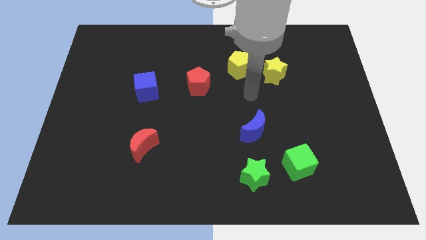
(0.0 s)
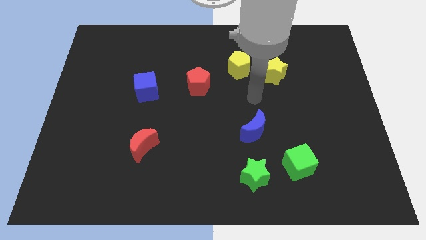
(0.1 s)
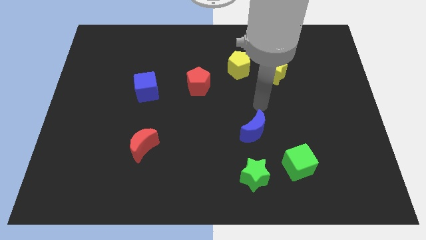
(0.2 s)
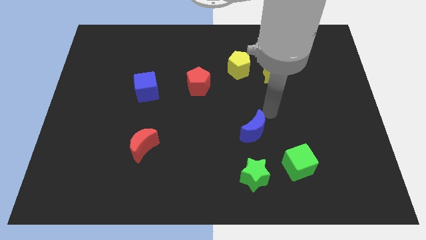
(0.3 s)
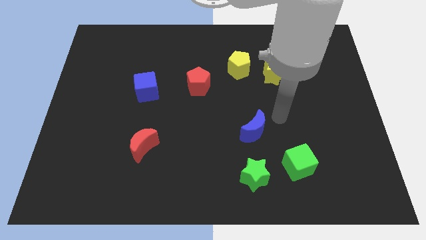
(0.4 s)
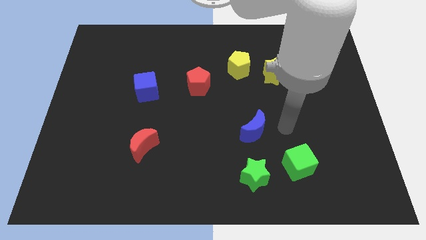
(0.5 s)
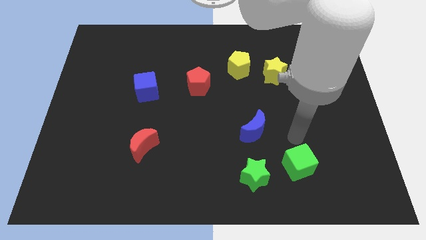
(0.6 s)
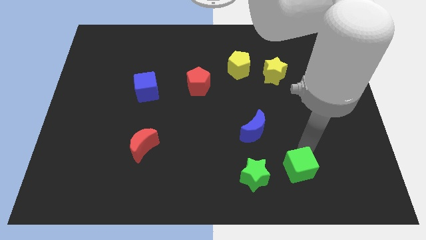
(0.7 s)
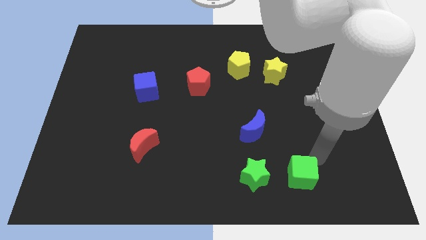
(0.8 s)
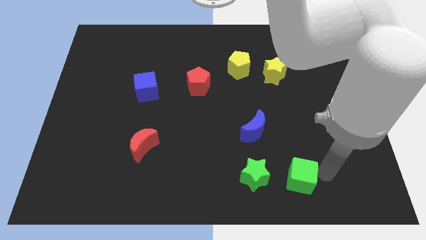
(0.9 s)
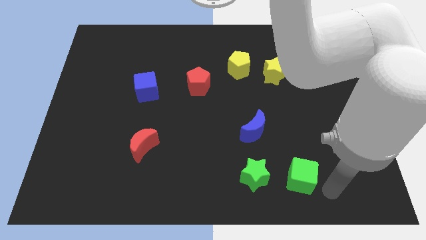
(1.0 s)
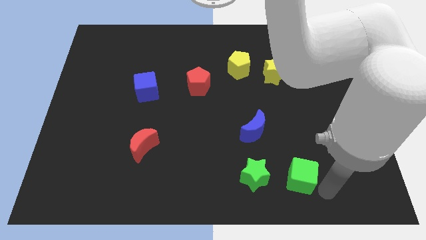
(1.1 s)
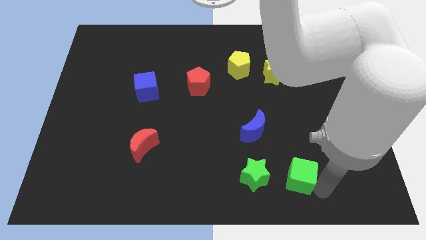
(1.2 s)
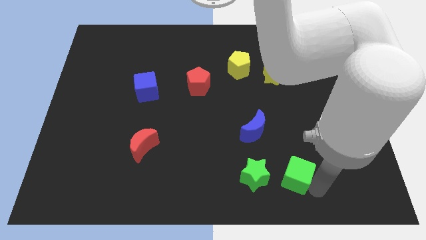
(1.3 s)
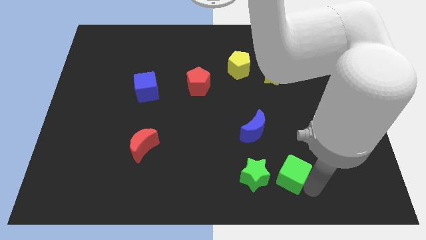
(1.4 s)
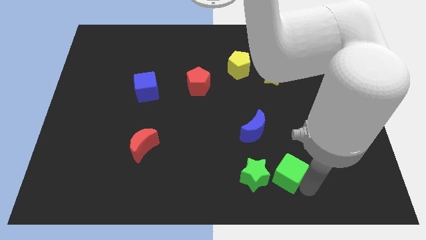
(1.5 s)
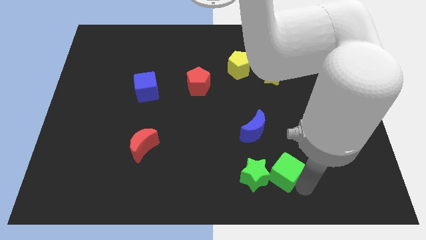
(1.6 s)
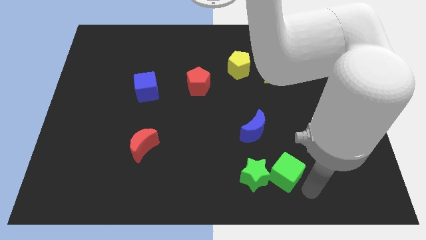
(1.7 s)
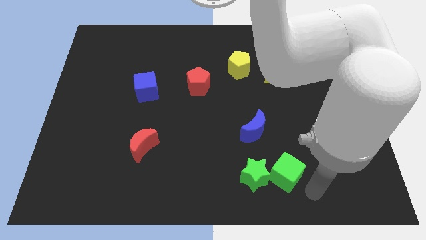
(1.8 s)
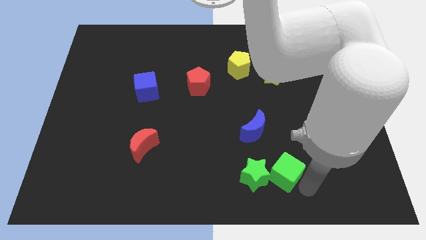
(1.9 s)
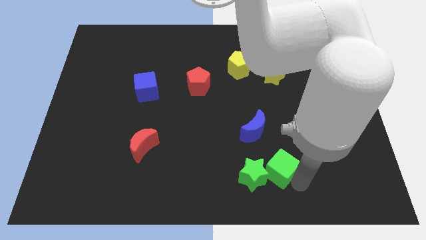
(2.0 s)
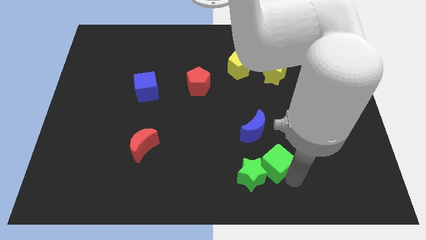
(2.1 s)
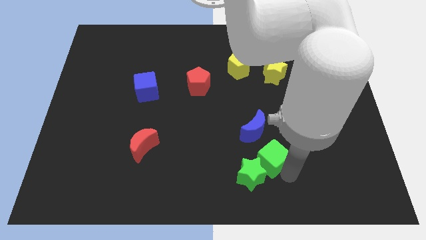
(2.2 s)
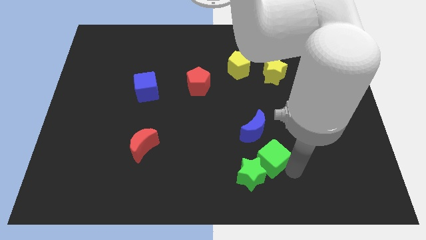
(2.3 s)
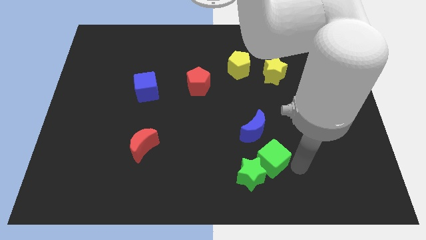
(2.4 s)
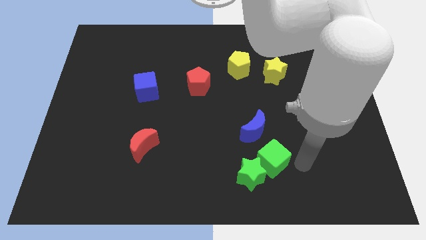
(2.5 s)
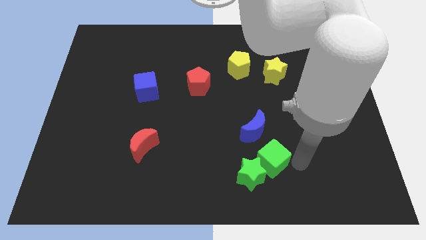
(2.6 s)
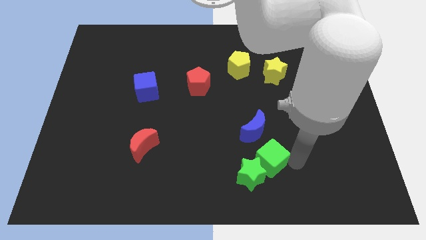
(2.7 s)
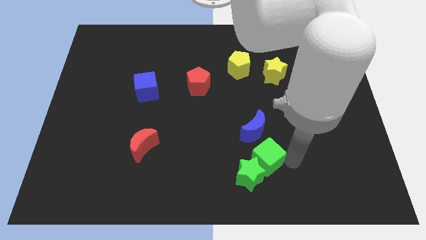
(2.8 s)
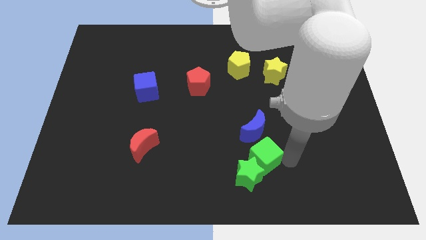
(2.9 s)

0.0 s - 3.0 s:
push the green cube a little to the left

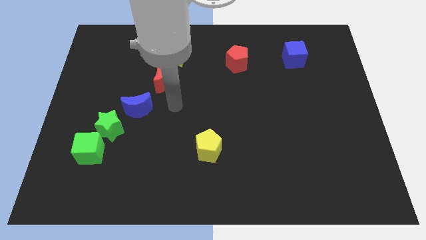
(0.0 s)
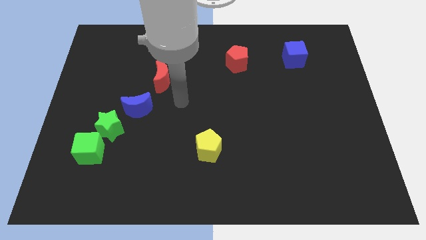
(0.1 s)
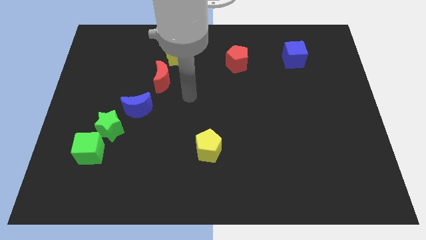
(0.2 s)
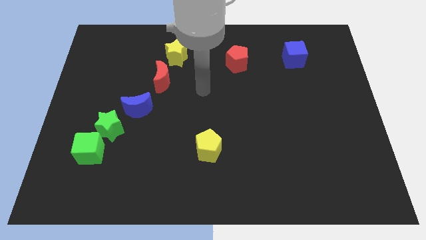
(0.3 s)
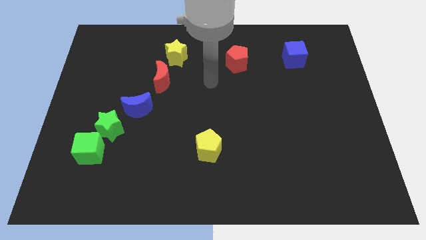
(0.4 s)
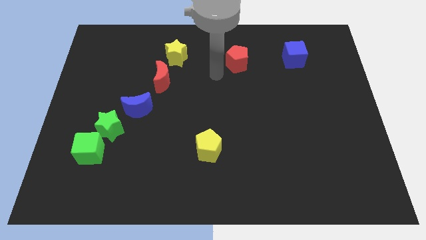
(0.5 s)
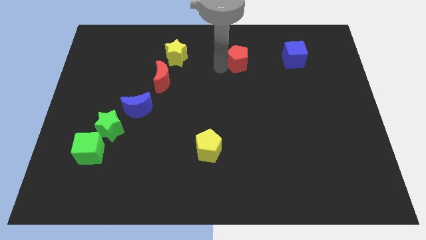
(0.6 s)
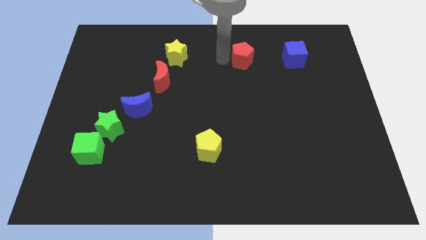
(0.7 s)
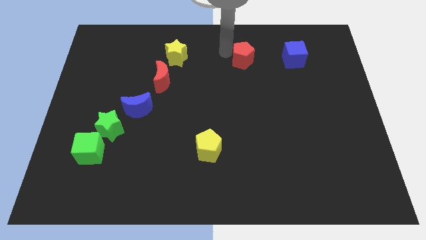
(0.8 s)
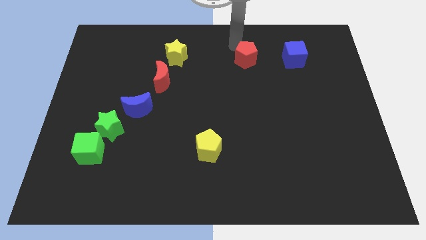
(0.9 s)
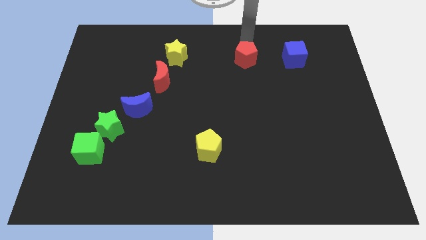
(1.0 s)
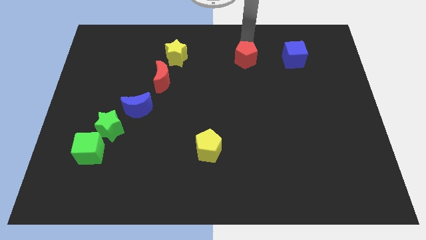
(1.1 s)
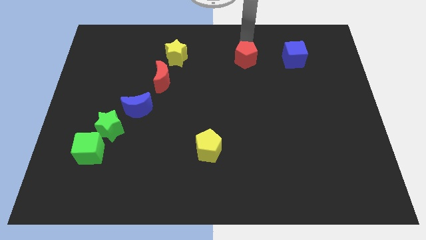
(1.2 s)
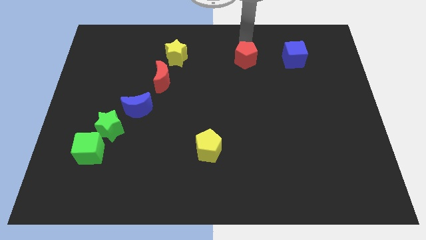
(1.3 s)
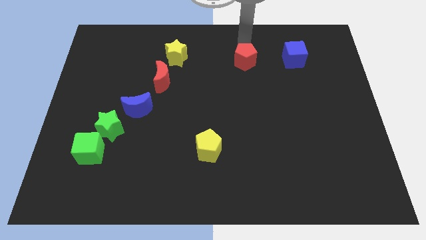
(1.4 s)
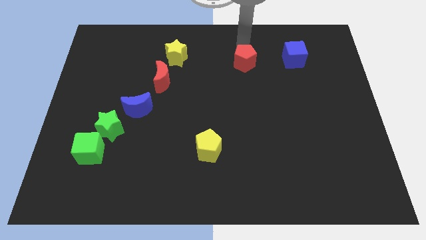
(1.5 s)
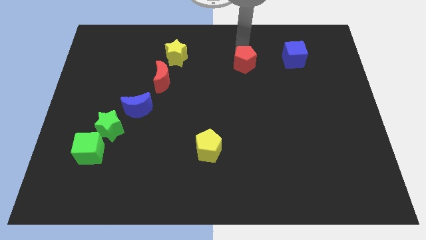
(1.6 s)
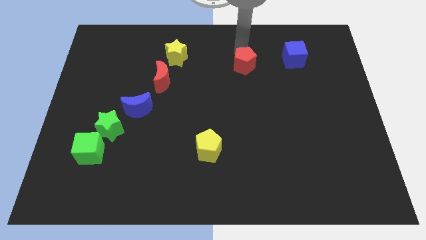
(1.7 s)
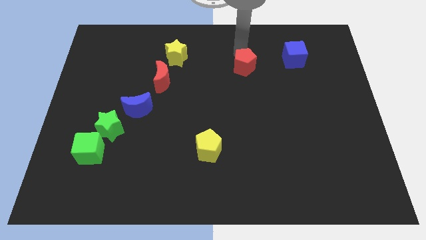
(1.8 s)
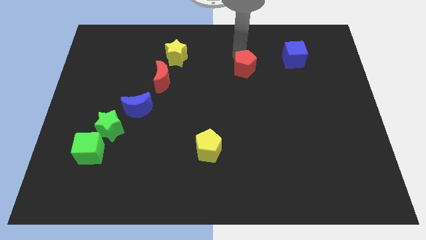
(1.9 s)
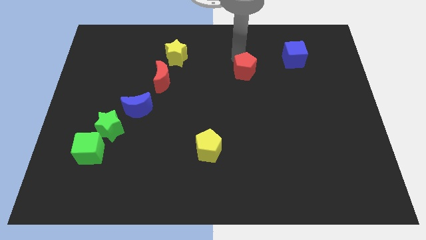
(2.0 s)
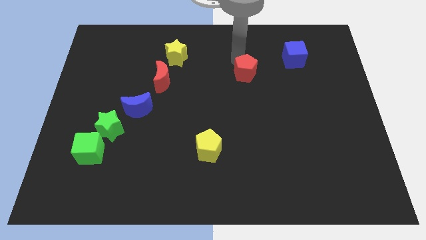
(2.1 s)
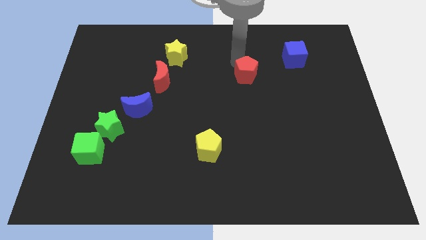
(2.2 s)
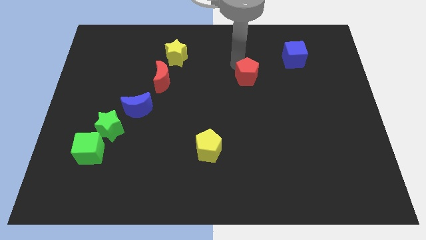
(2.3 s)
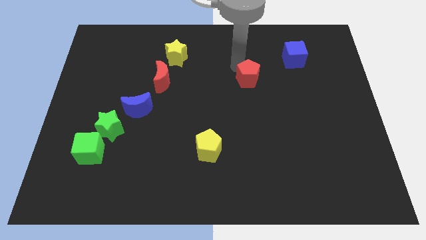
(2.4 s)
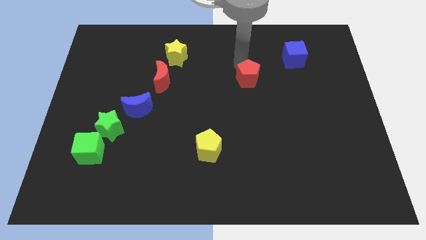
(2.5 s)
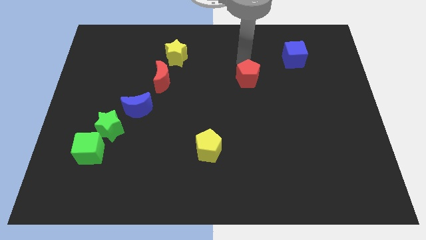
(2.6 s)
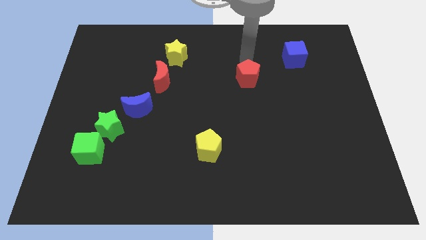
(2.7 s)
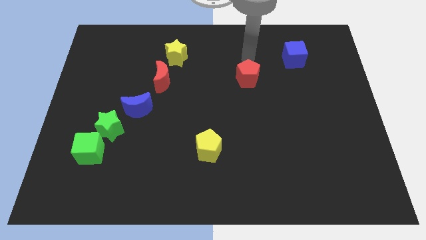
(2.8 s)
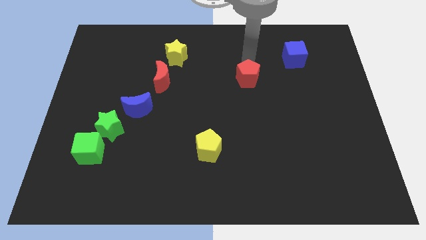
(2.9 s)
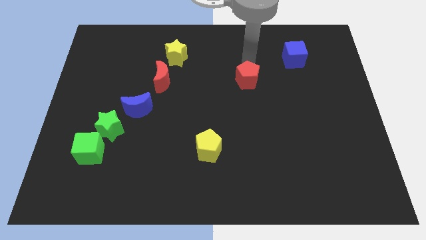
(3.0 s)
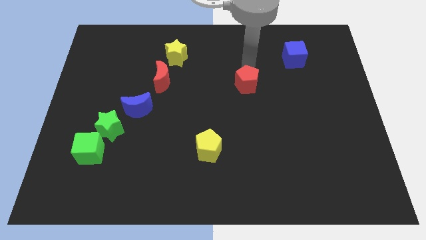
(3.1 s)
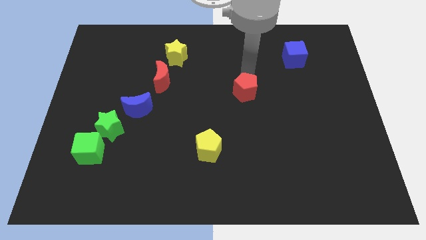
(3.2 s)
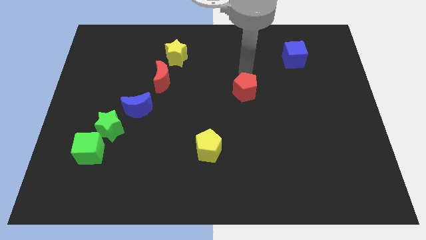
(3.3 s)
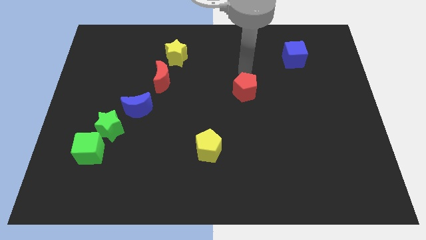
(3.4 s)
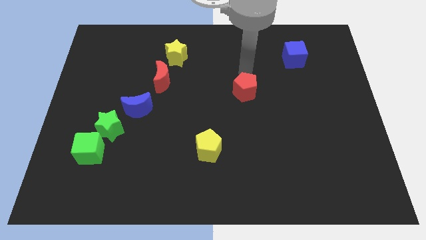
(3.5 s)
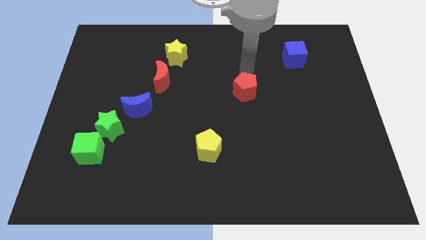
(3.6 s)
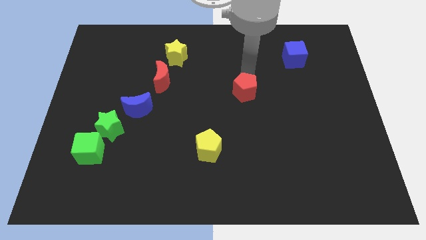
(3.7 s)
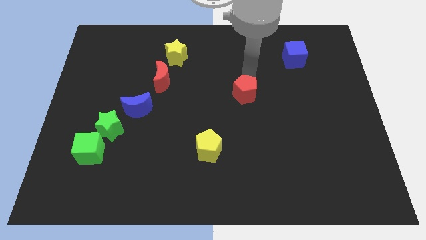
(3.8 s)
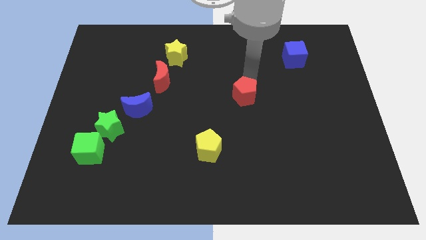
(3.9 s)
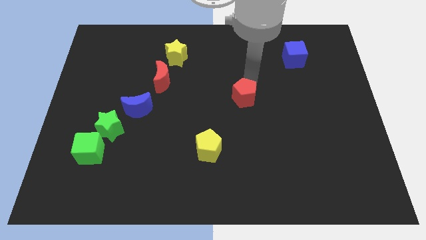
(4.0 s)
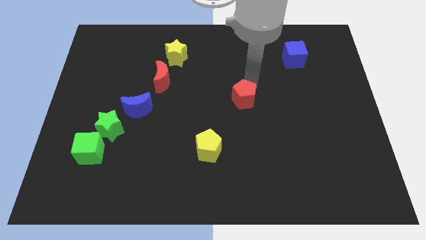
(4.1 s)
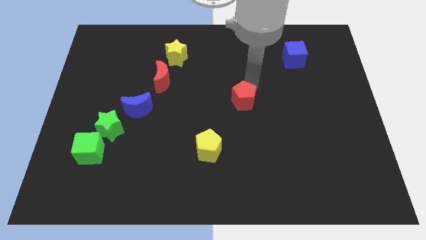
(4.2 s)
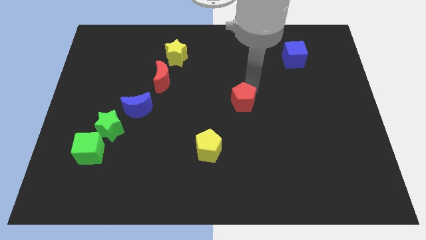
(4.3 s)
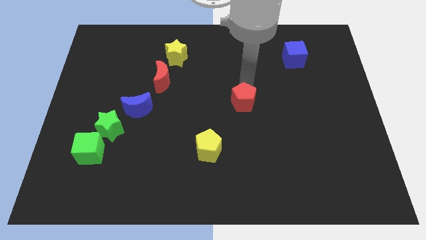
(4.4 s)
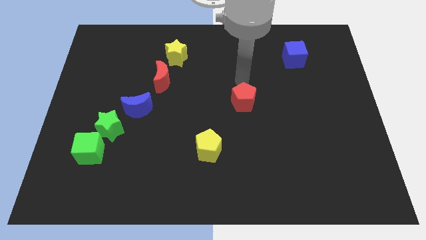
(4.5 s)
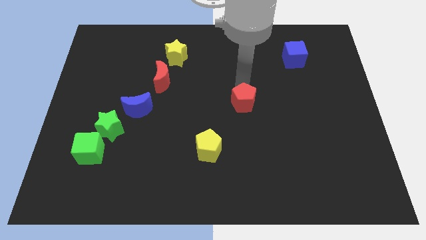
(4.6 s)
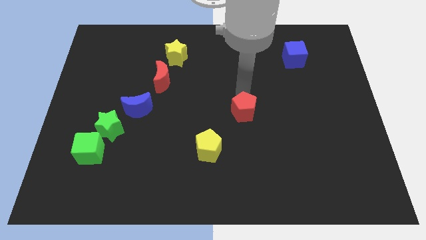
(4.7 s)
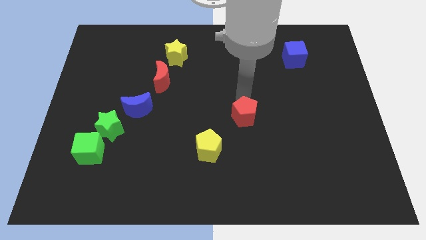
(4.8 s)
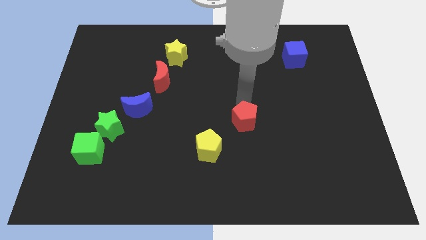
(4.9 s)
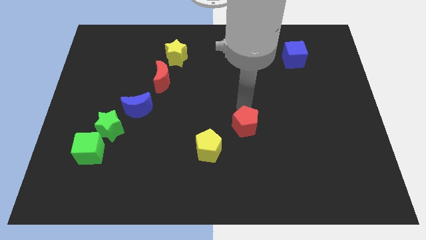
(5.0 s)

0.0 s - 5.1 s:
slide the red pentagon down

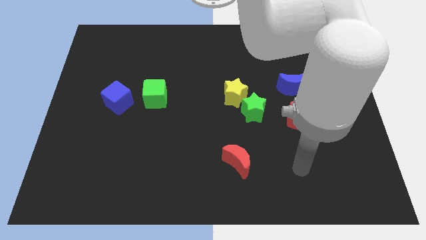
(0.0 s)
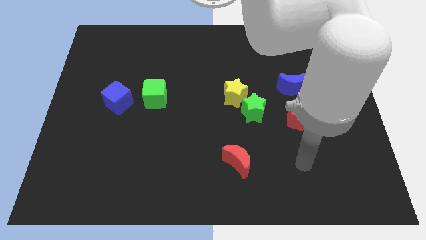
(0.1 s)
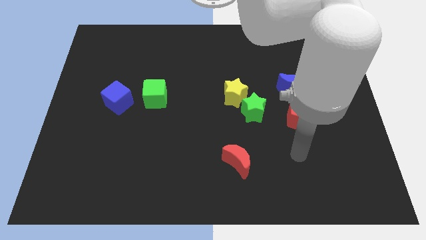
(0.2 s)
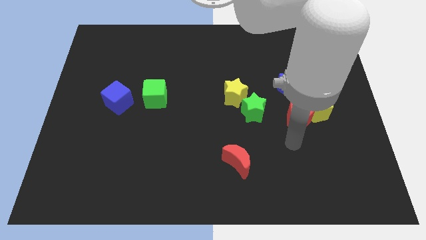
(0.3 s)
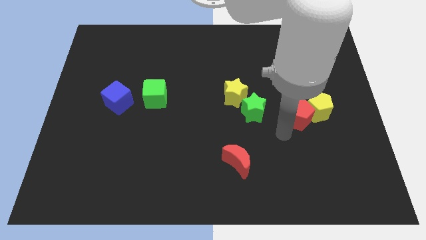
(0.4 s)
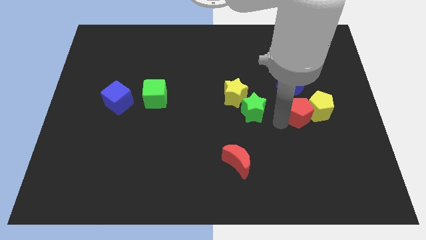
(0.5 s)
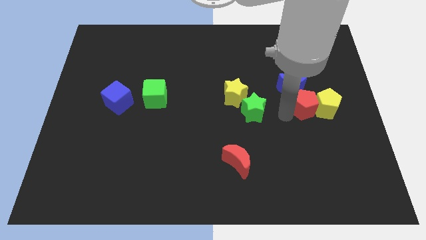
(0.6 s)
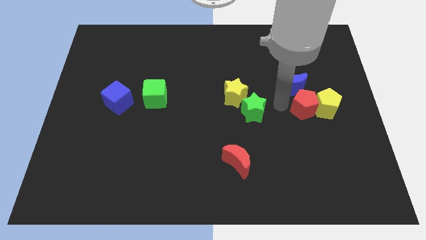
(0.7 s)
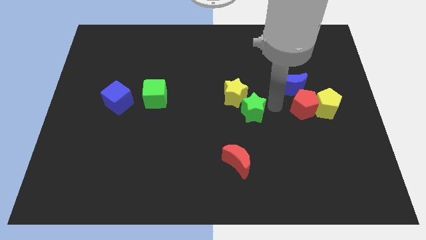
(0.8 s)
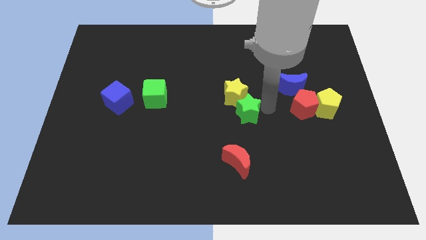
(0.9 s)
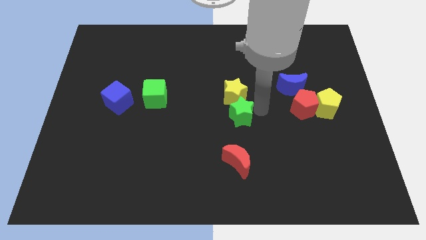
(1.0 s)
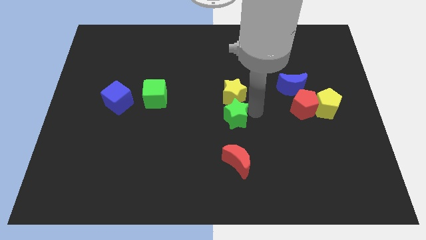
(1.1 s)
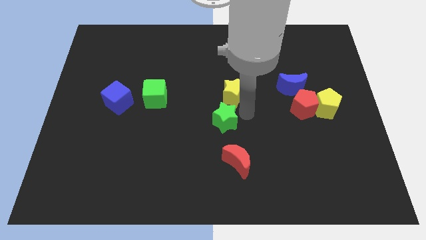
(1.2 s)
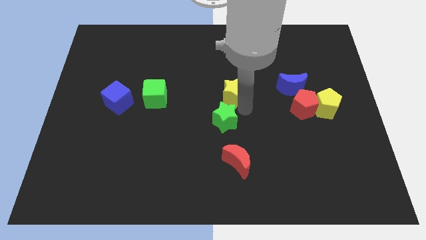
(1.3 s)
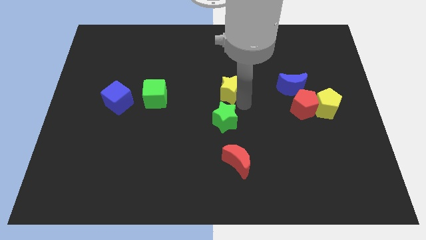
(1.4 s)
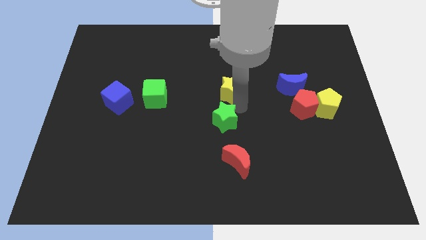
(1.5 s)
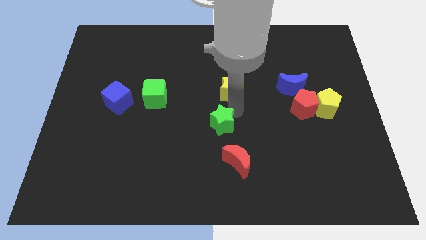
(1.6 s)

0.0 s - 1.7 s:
slide the green star slightly downwards and left diagonally
